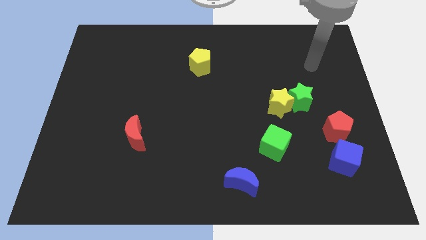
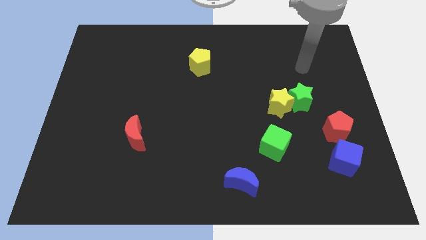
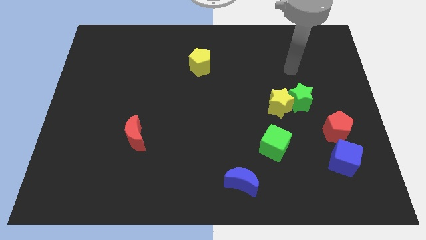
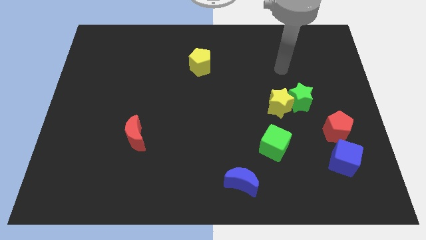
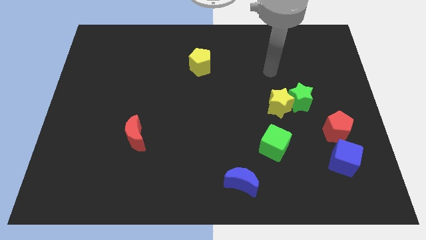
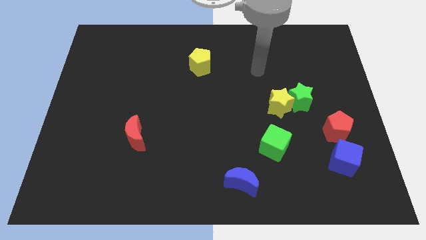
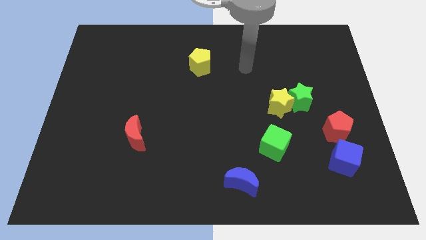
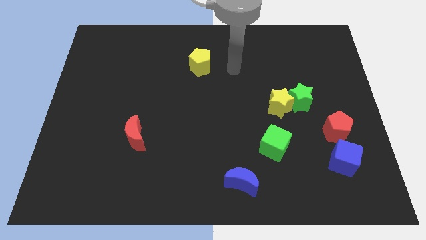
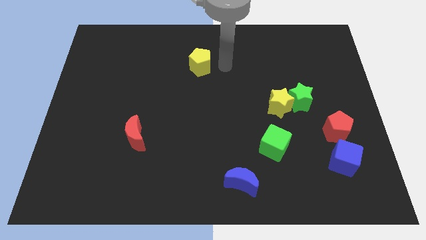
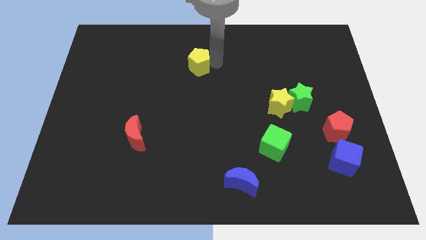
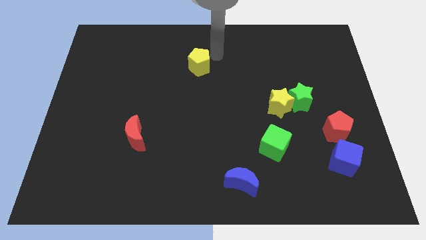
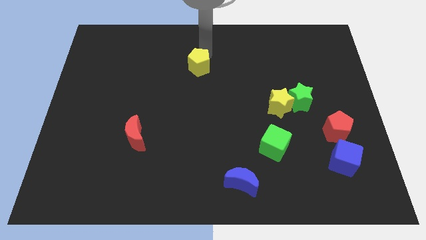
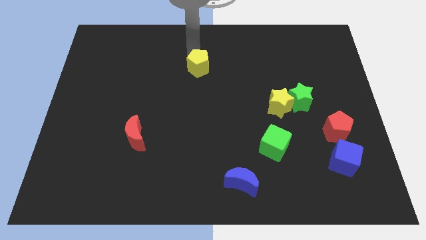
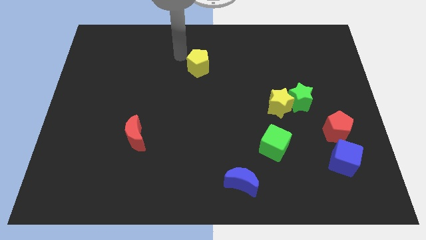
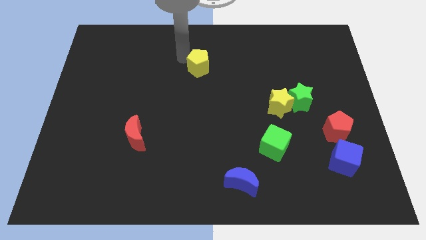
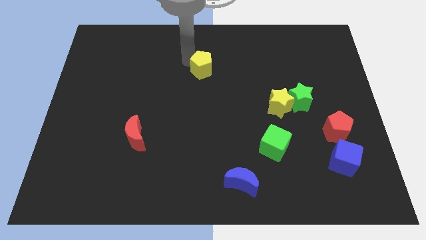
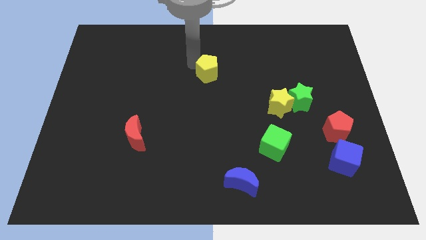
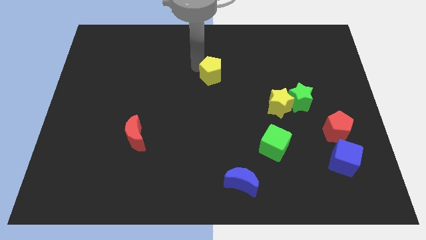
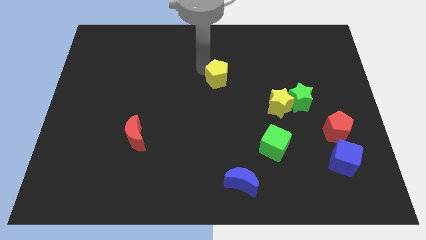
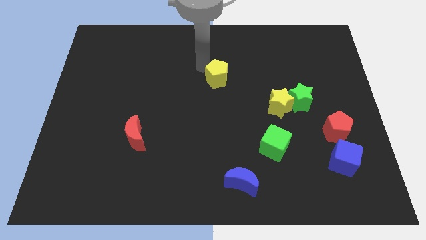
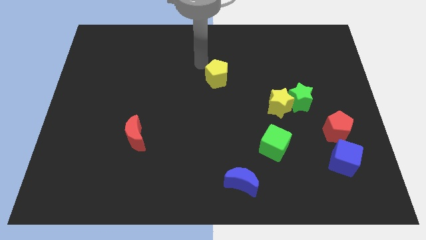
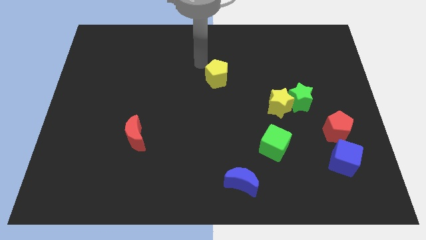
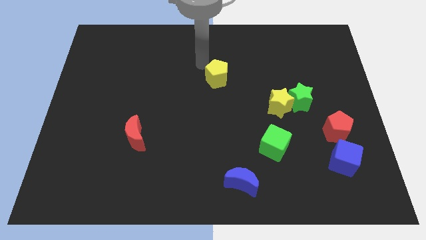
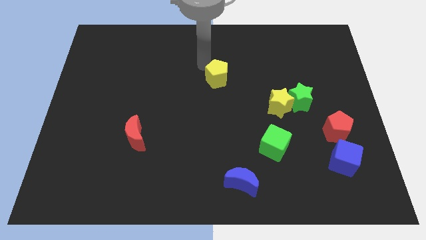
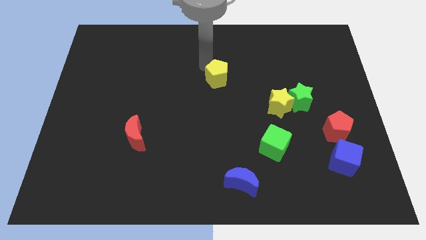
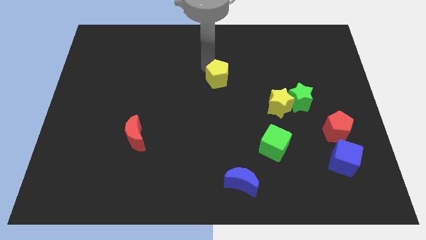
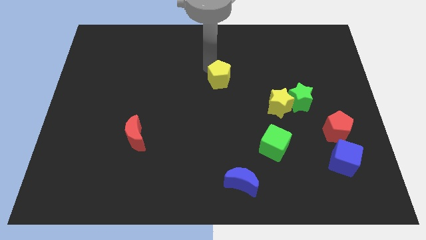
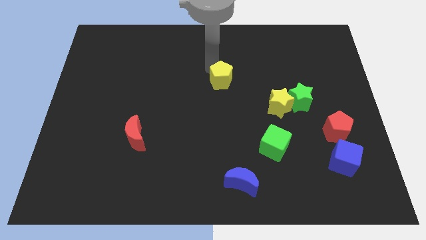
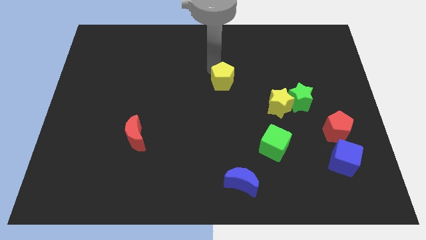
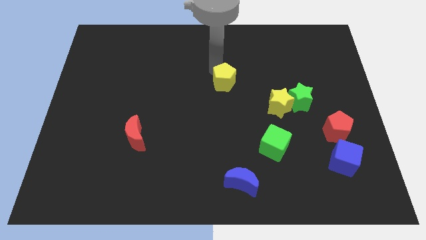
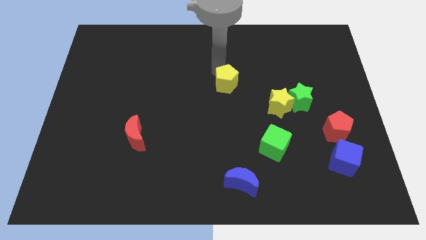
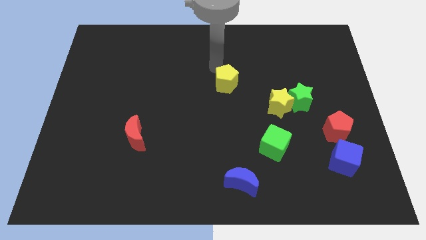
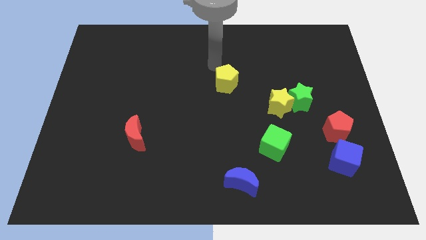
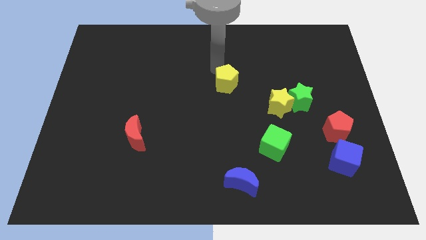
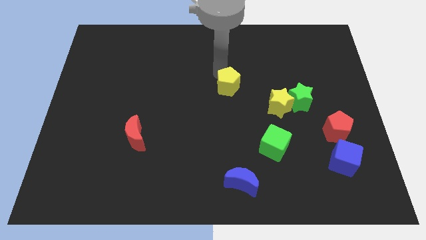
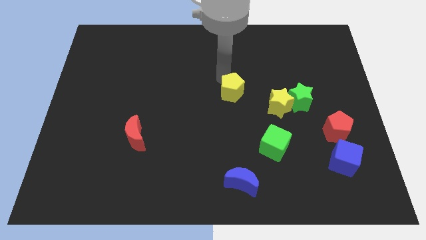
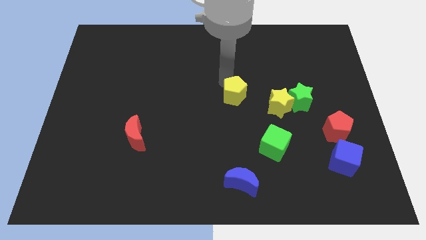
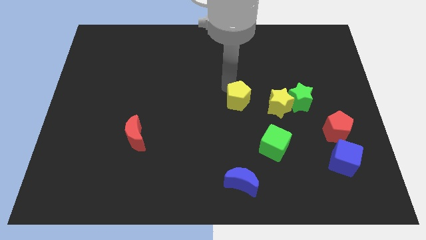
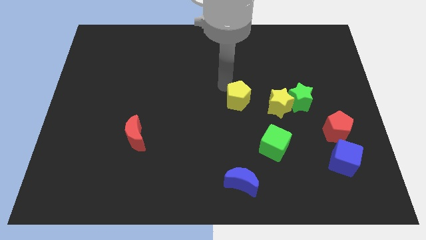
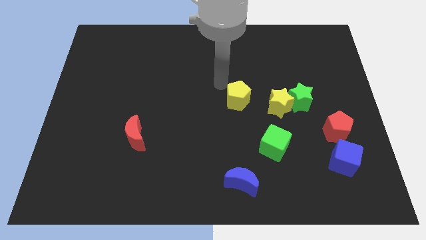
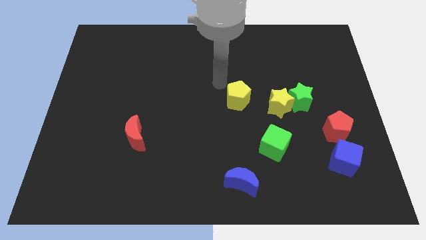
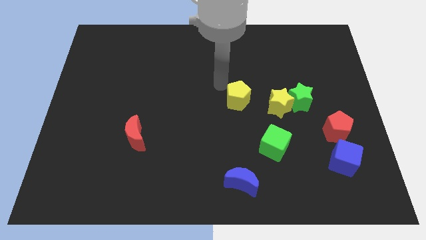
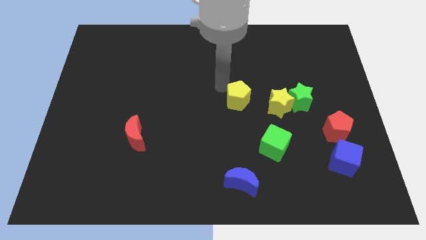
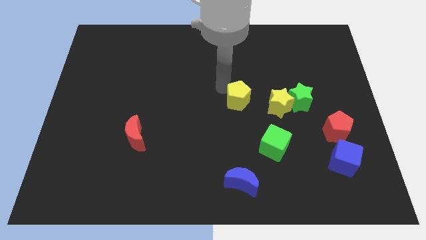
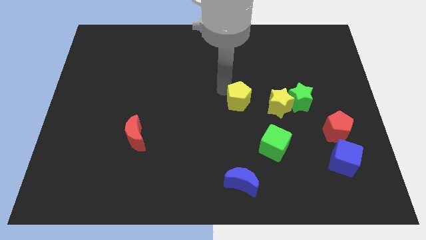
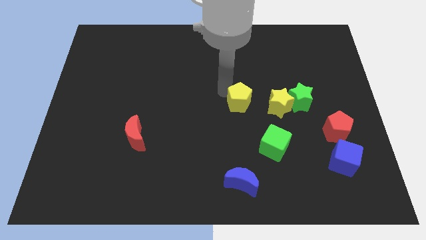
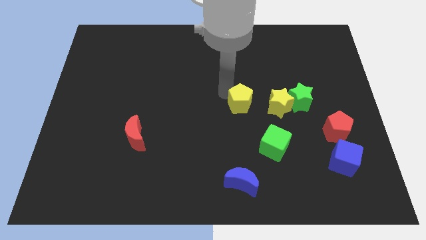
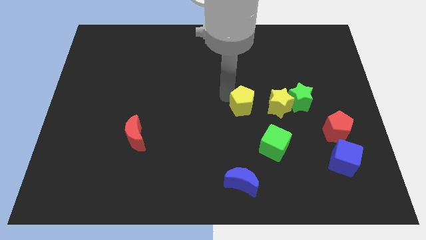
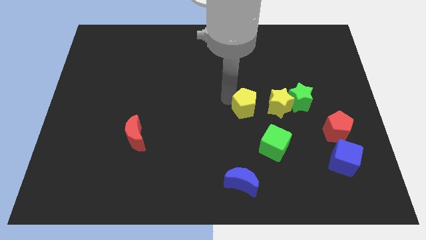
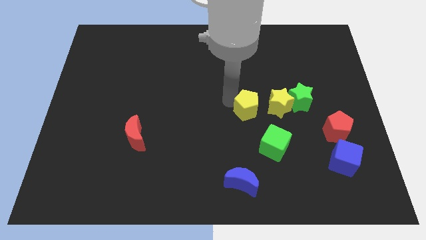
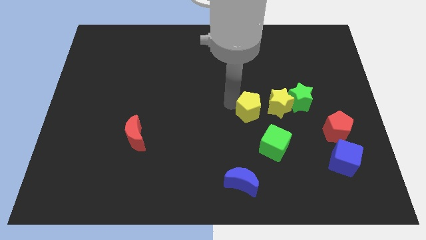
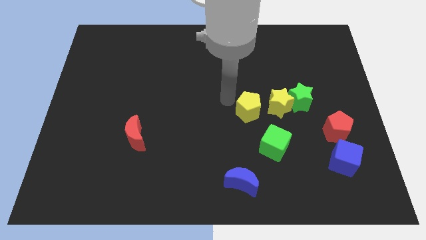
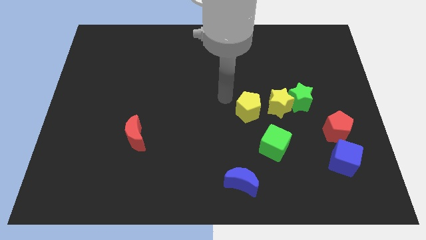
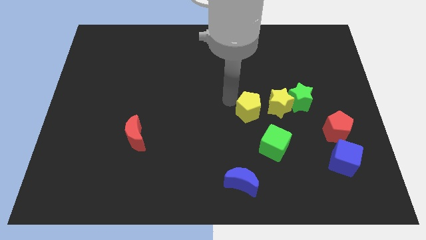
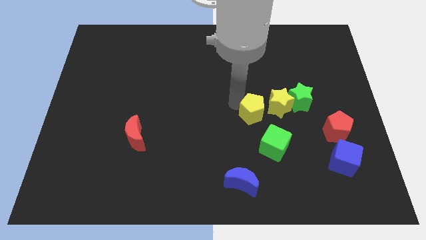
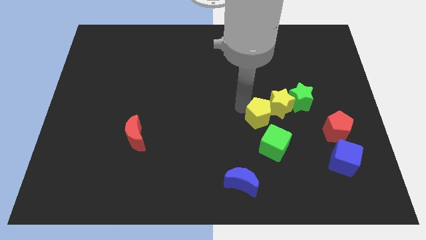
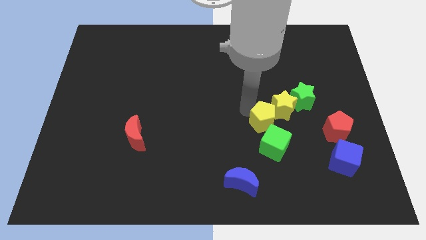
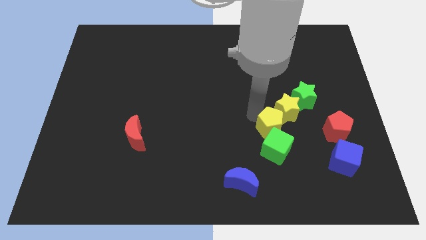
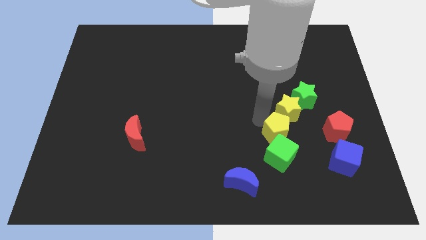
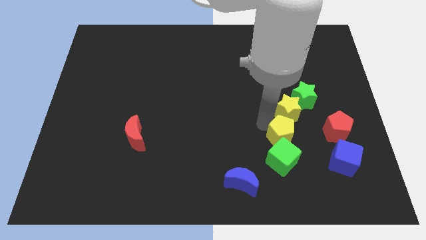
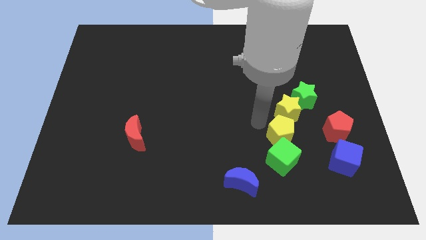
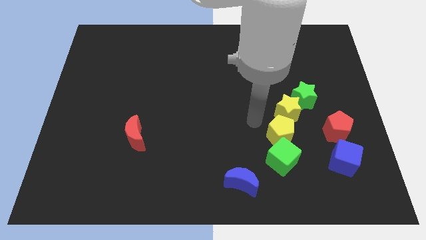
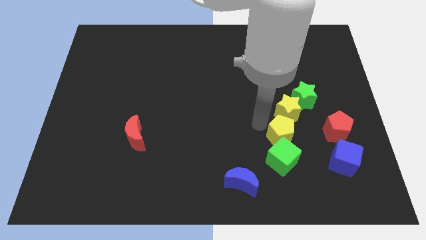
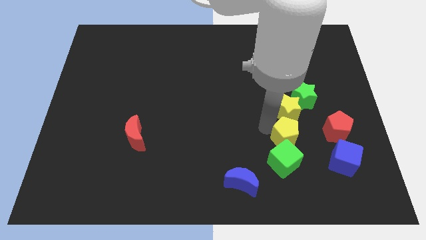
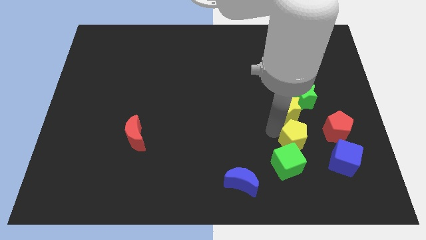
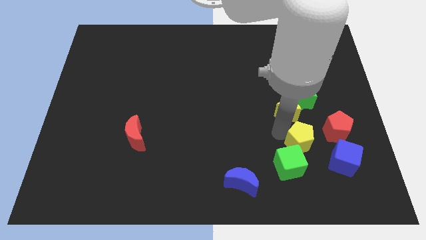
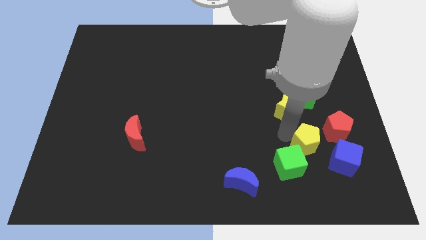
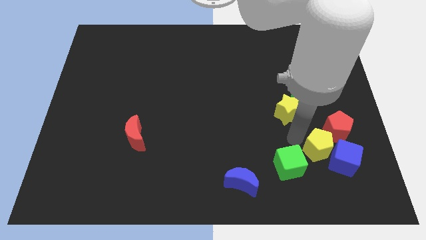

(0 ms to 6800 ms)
push the yellow pentagon next to the blue cube
